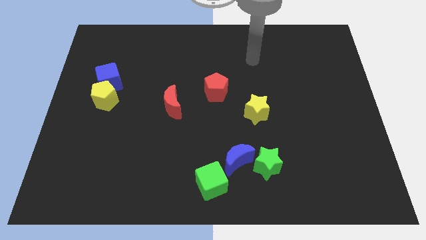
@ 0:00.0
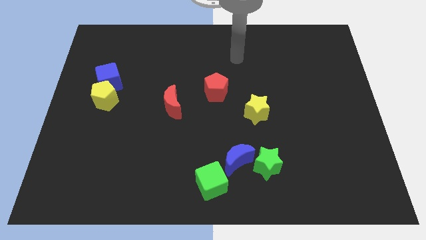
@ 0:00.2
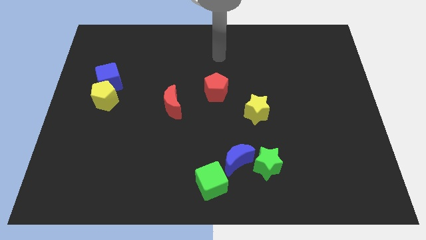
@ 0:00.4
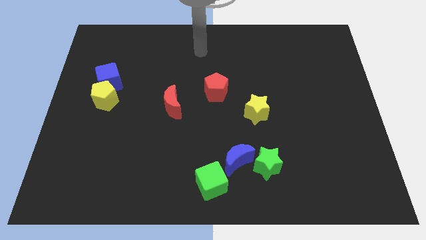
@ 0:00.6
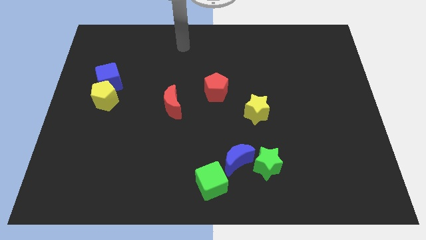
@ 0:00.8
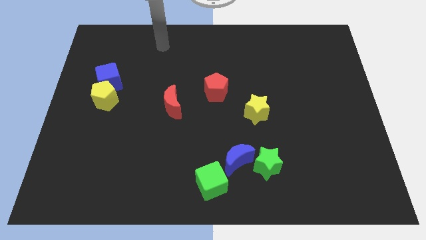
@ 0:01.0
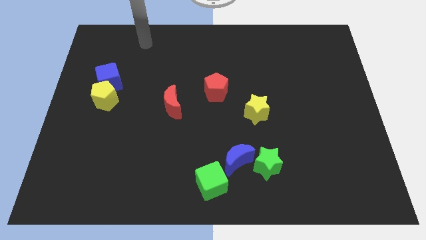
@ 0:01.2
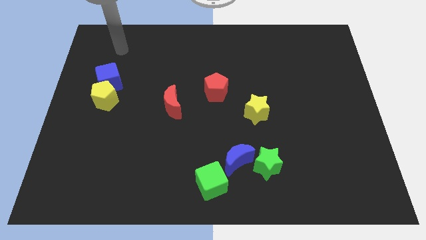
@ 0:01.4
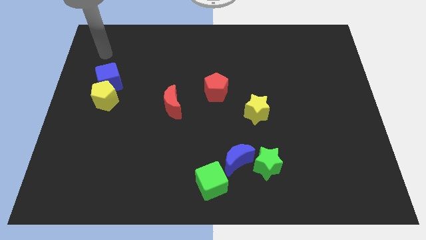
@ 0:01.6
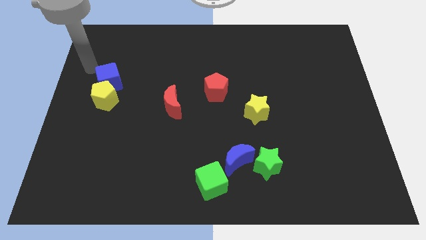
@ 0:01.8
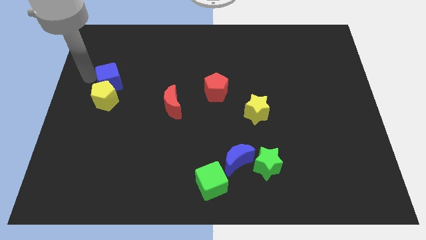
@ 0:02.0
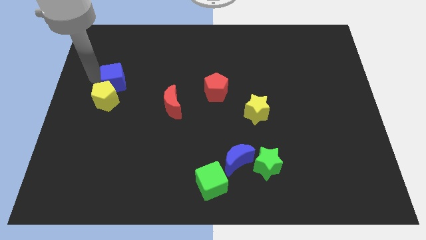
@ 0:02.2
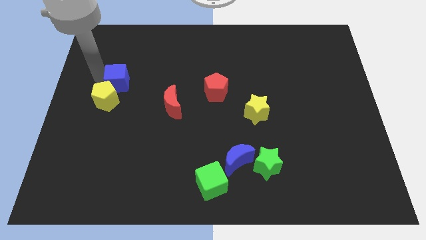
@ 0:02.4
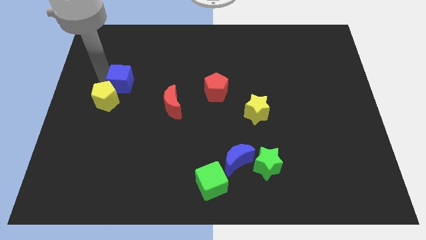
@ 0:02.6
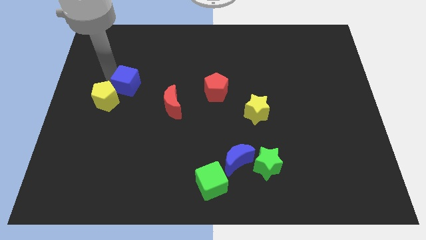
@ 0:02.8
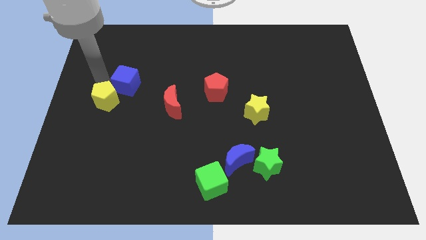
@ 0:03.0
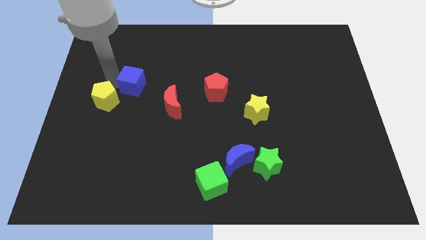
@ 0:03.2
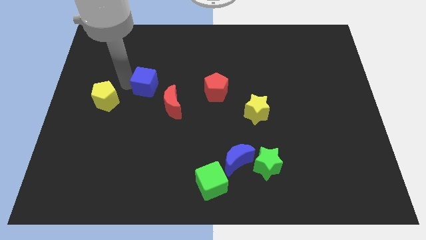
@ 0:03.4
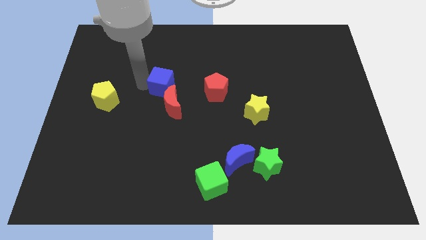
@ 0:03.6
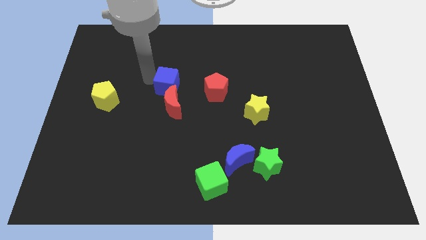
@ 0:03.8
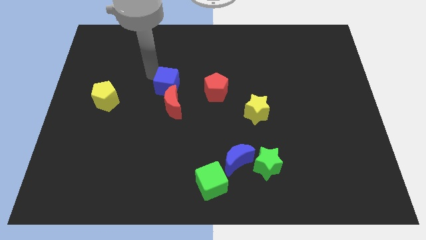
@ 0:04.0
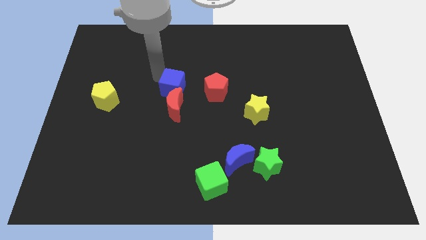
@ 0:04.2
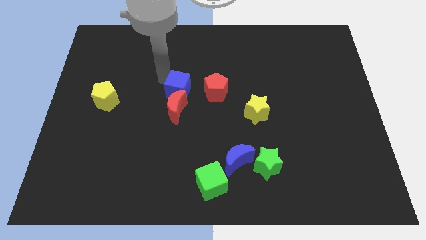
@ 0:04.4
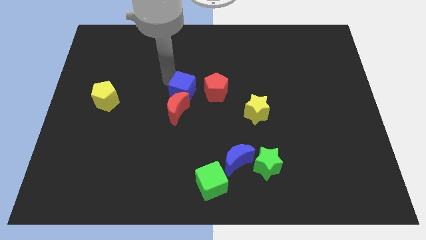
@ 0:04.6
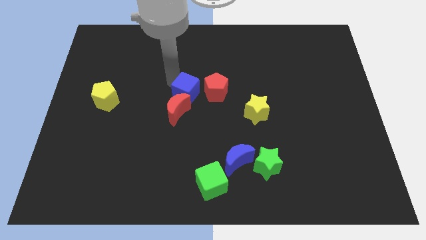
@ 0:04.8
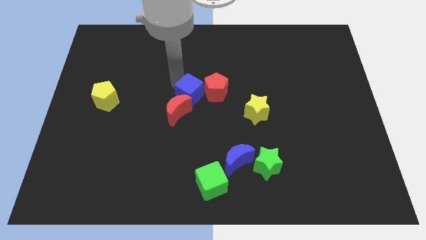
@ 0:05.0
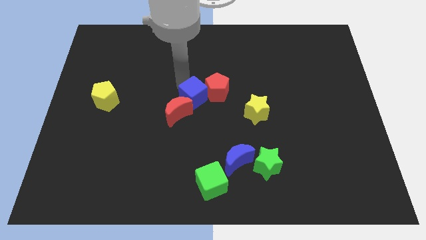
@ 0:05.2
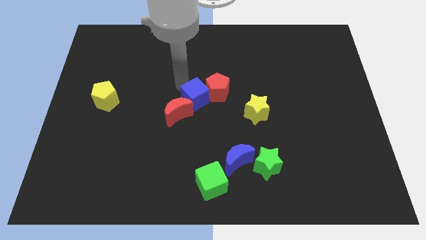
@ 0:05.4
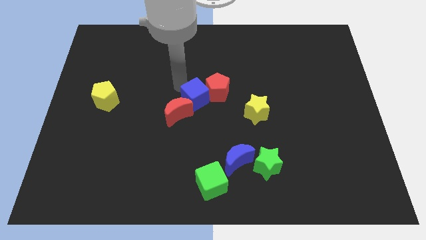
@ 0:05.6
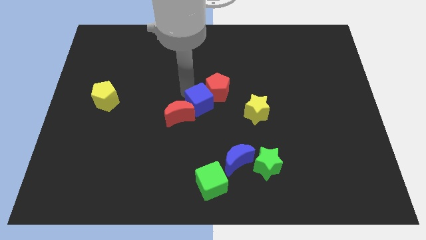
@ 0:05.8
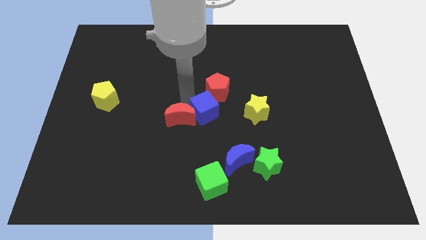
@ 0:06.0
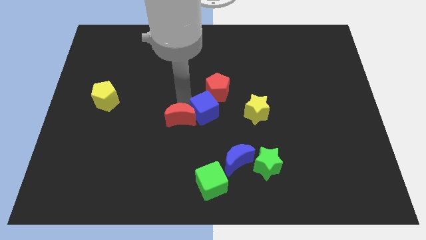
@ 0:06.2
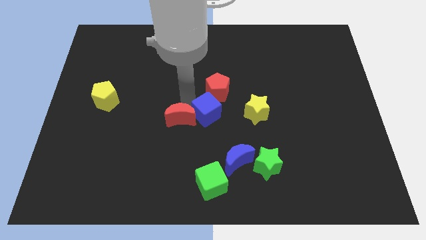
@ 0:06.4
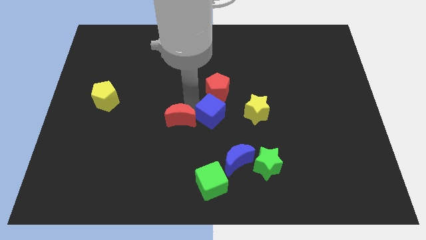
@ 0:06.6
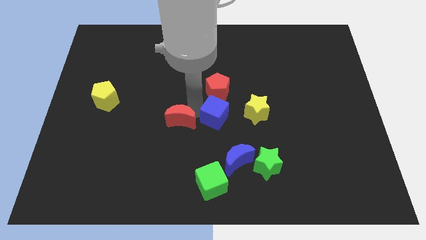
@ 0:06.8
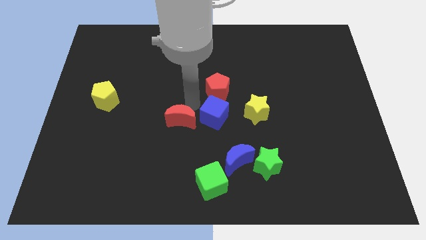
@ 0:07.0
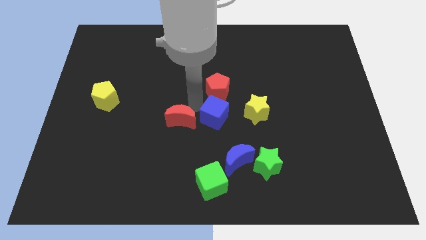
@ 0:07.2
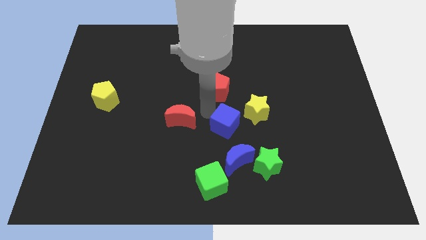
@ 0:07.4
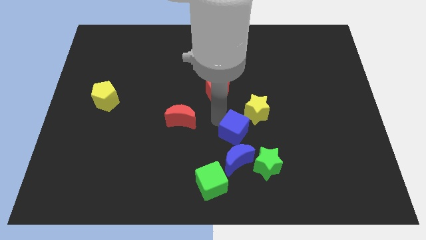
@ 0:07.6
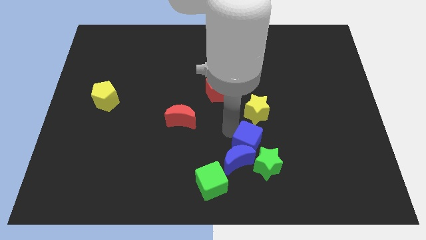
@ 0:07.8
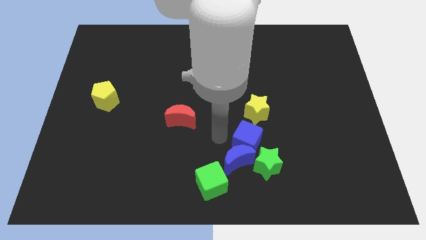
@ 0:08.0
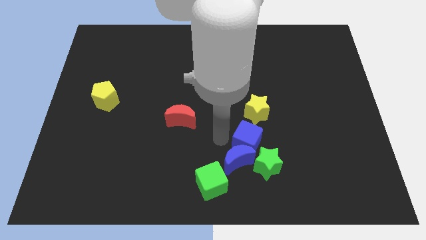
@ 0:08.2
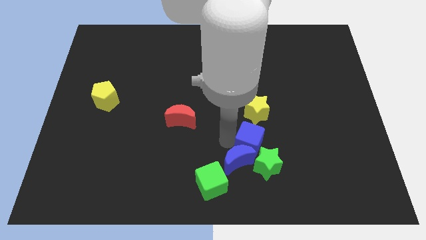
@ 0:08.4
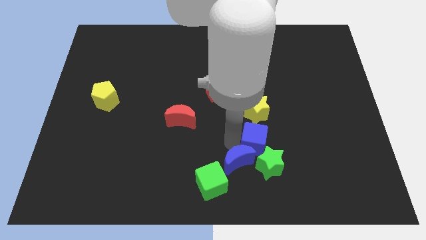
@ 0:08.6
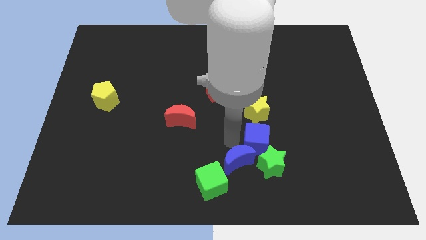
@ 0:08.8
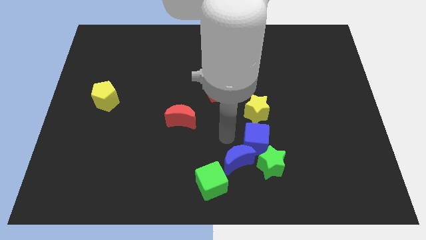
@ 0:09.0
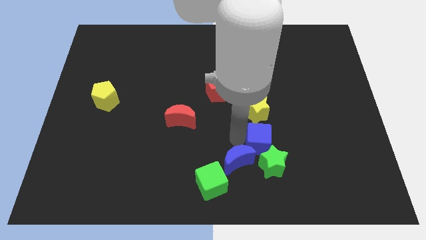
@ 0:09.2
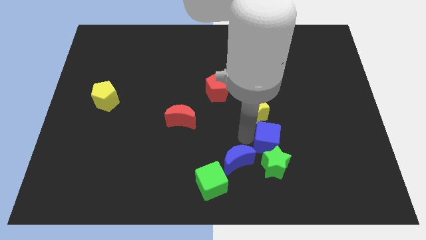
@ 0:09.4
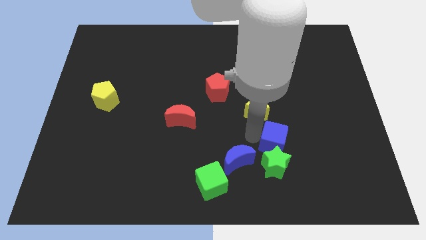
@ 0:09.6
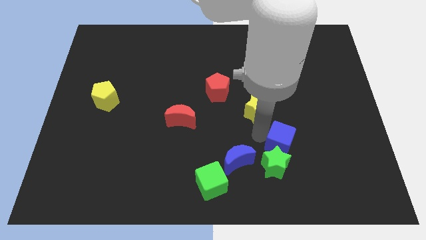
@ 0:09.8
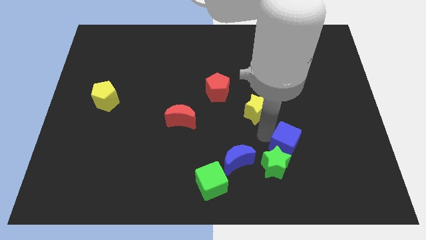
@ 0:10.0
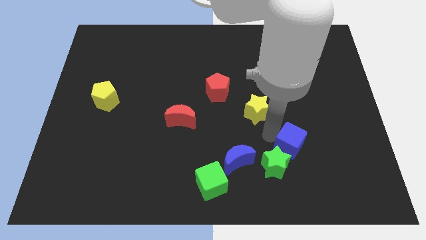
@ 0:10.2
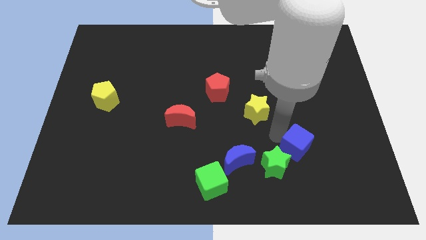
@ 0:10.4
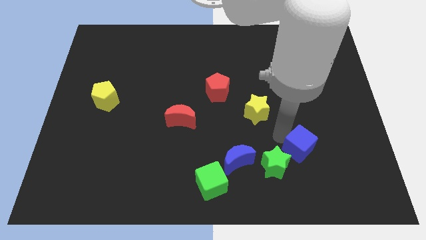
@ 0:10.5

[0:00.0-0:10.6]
move the blue cube right of the green star

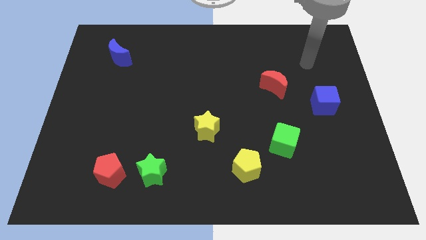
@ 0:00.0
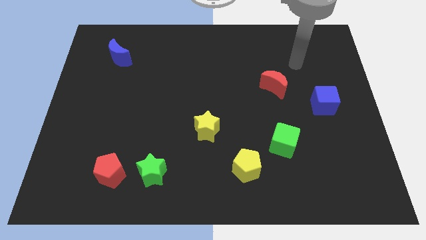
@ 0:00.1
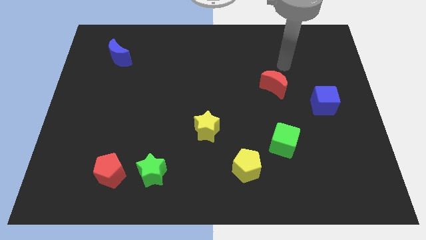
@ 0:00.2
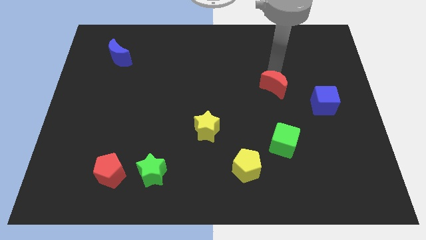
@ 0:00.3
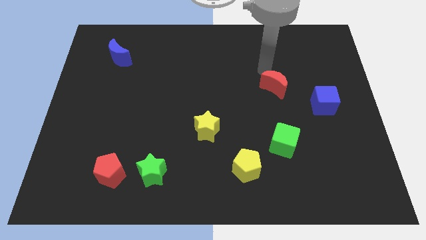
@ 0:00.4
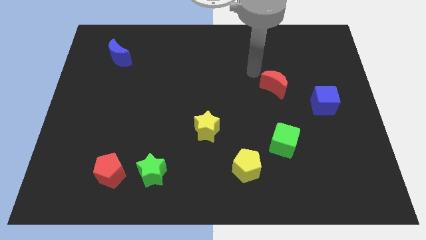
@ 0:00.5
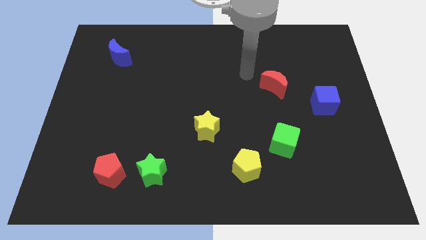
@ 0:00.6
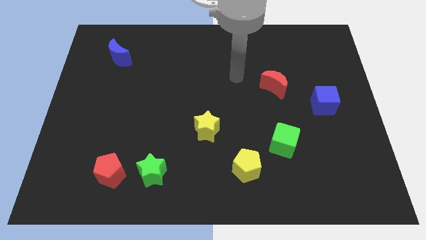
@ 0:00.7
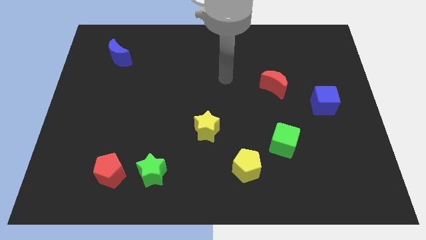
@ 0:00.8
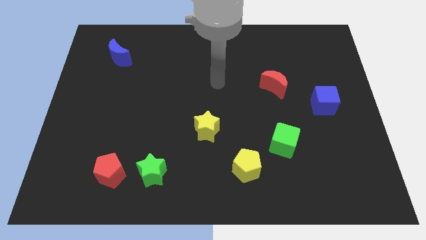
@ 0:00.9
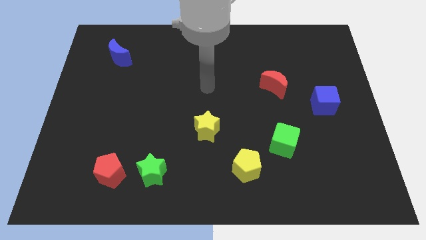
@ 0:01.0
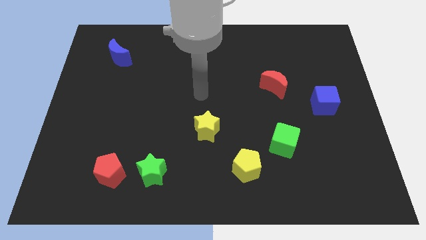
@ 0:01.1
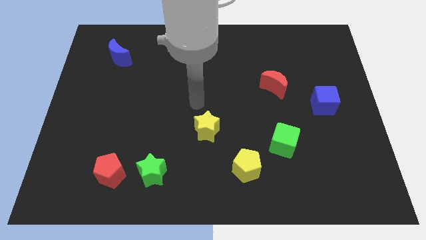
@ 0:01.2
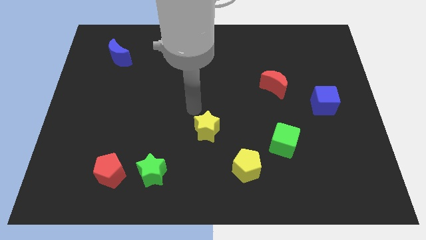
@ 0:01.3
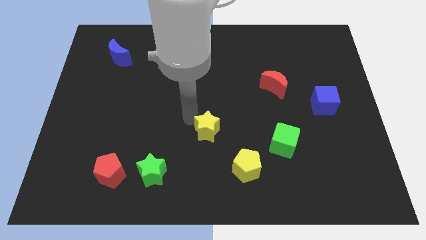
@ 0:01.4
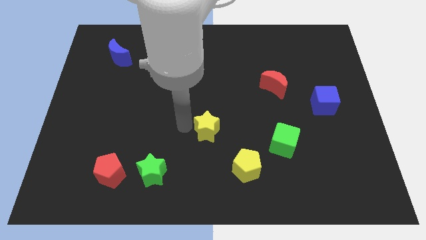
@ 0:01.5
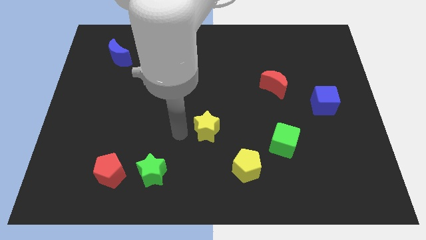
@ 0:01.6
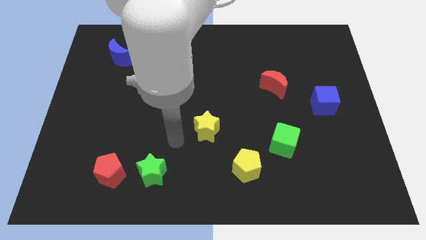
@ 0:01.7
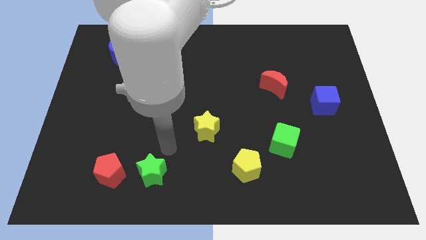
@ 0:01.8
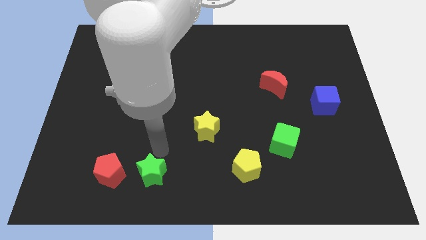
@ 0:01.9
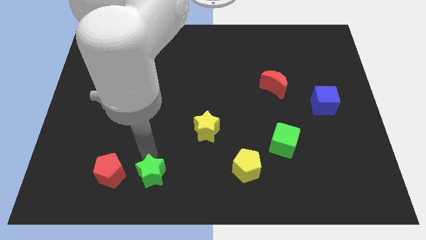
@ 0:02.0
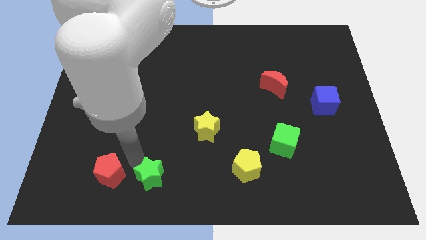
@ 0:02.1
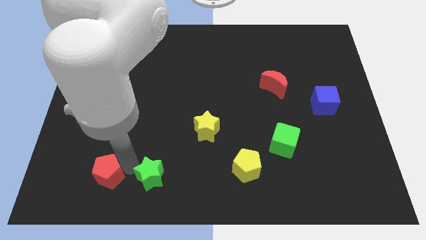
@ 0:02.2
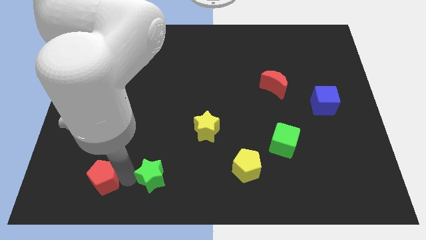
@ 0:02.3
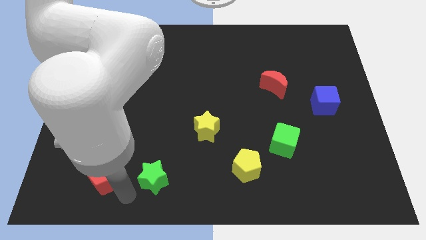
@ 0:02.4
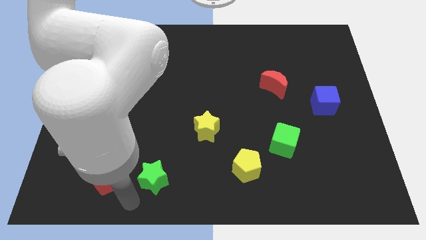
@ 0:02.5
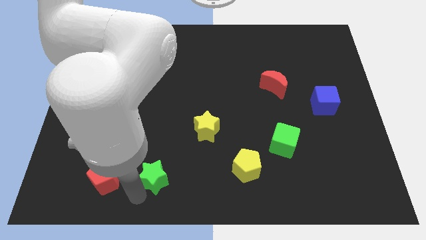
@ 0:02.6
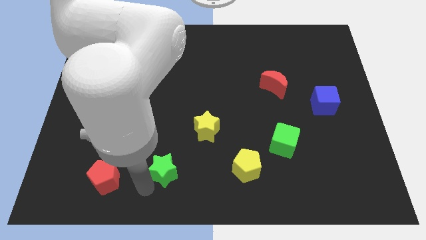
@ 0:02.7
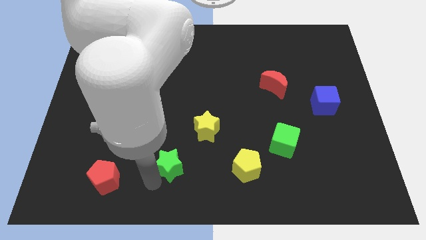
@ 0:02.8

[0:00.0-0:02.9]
slide the green star to the bottom left side of the yellow star

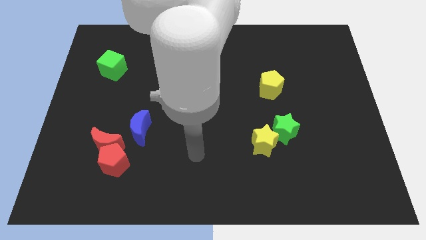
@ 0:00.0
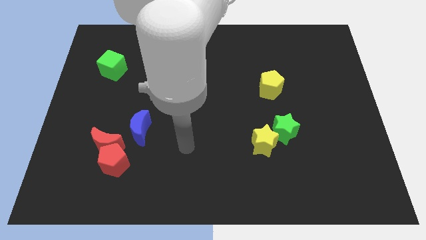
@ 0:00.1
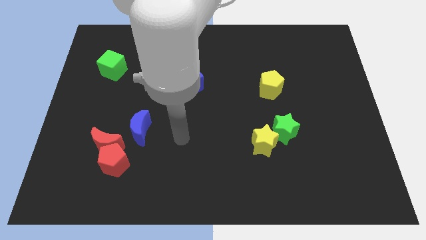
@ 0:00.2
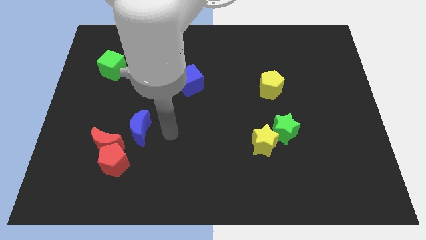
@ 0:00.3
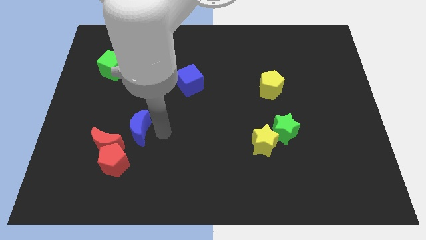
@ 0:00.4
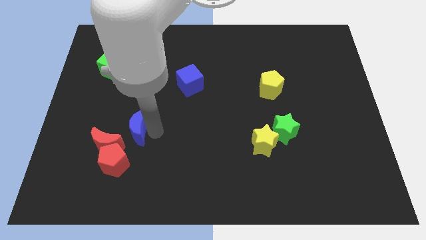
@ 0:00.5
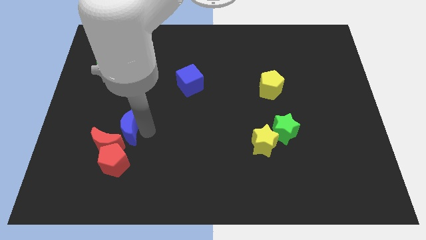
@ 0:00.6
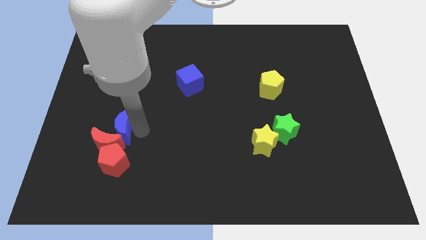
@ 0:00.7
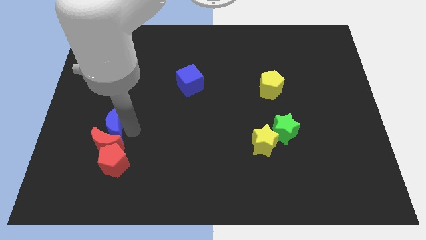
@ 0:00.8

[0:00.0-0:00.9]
move the blue moon to the top left of the red moon
